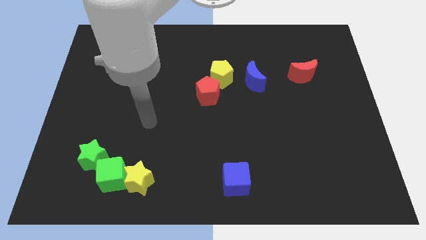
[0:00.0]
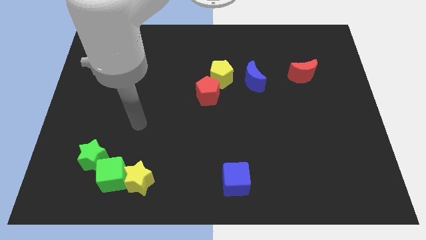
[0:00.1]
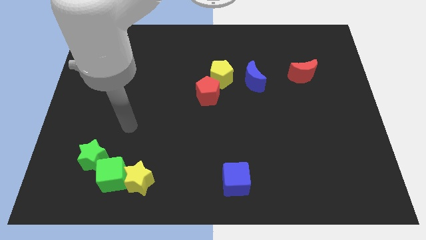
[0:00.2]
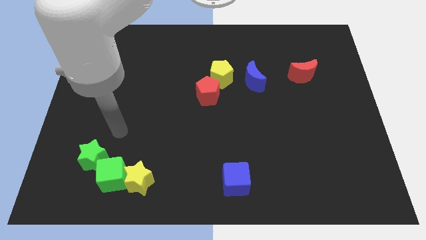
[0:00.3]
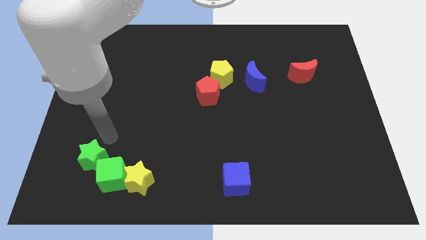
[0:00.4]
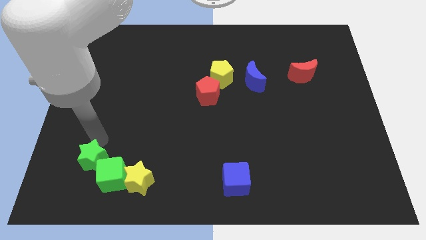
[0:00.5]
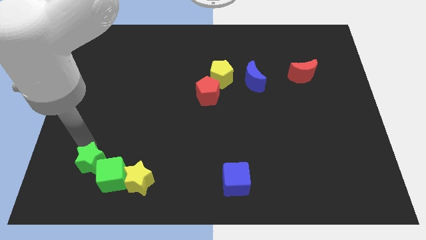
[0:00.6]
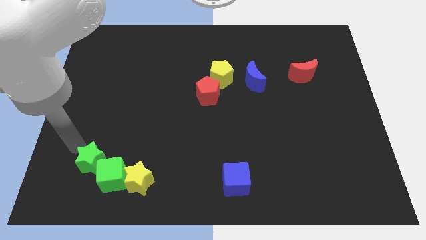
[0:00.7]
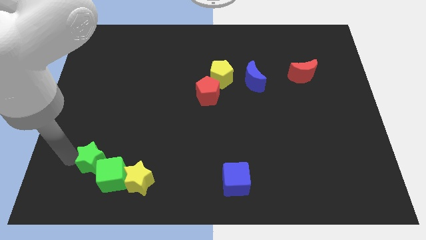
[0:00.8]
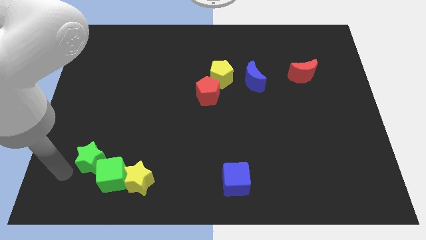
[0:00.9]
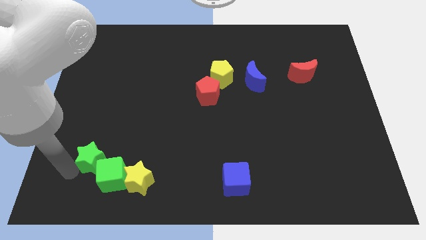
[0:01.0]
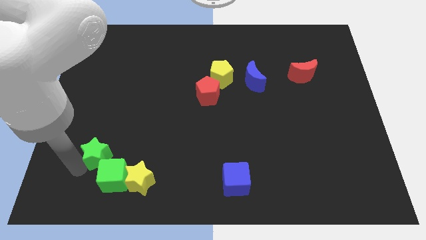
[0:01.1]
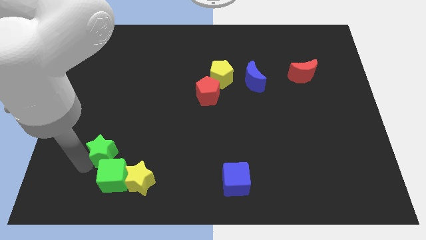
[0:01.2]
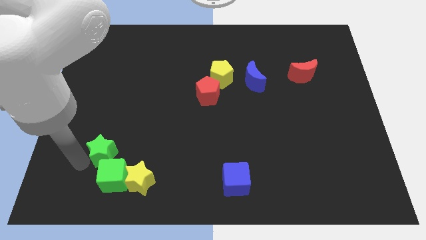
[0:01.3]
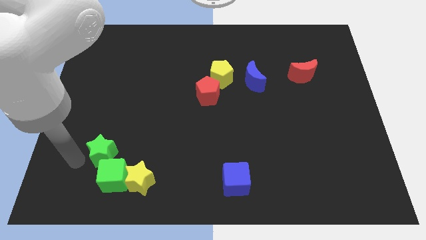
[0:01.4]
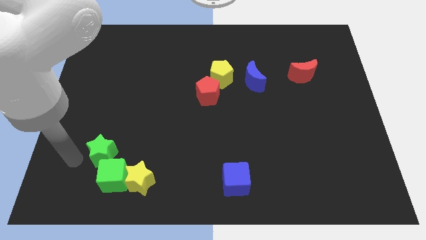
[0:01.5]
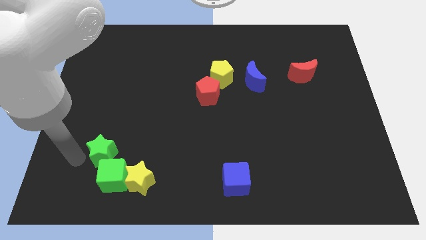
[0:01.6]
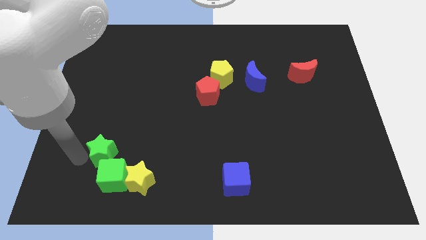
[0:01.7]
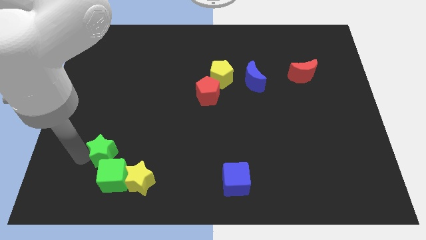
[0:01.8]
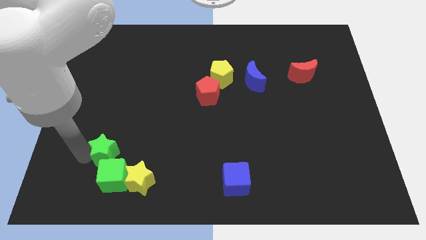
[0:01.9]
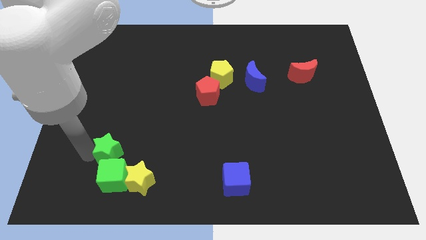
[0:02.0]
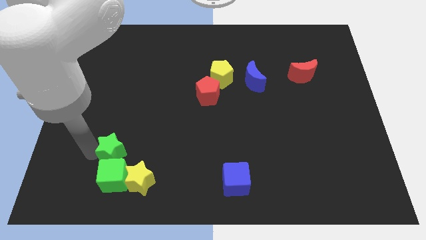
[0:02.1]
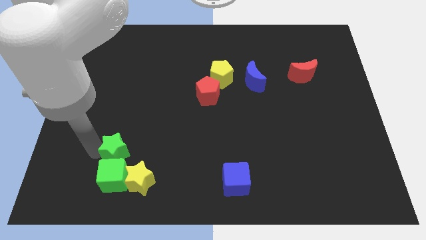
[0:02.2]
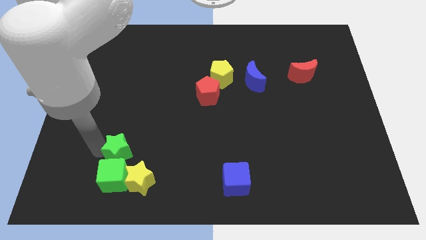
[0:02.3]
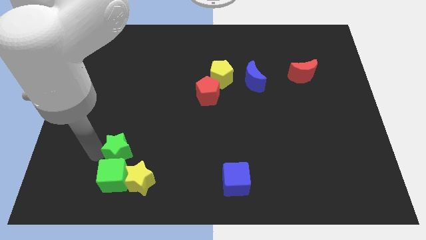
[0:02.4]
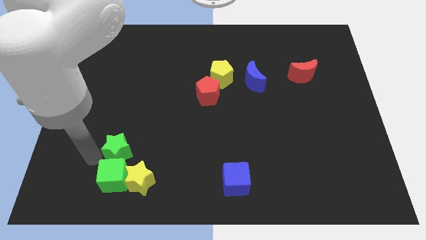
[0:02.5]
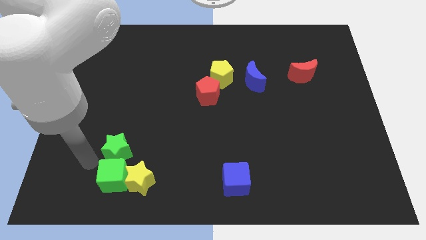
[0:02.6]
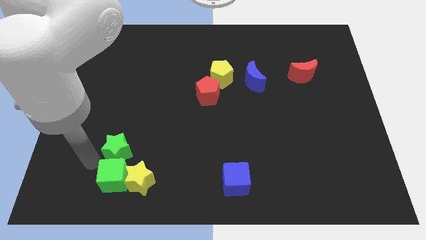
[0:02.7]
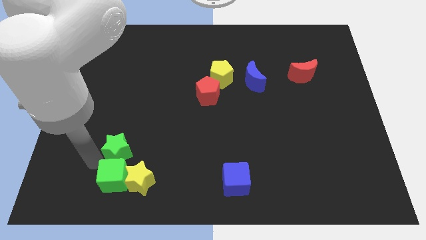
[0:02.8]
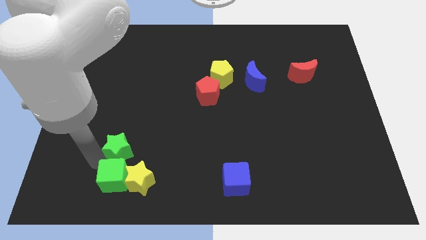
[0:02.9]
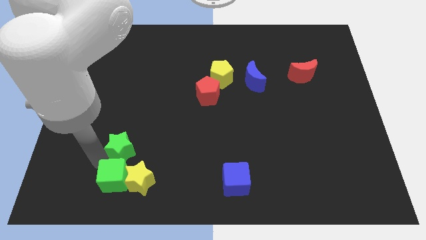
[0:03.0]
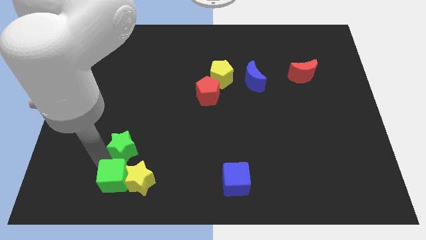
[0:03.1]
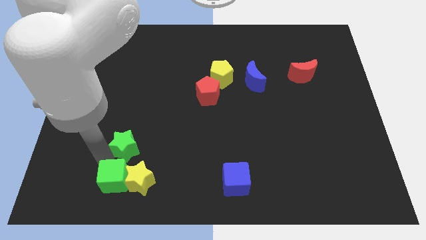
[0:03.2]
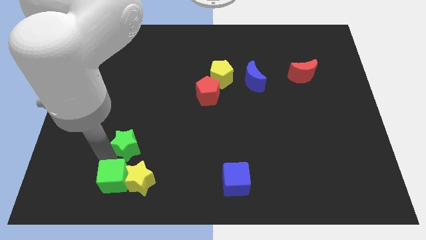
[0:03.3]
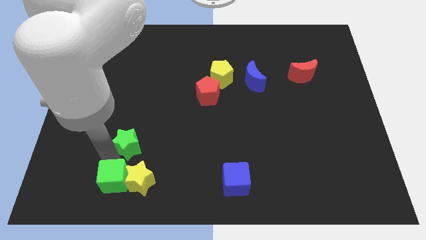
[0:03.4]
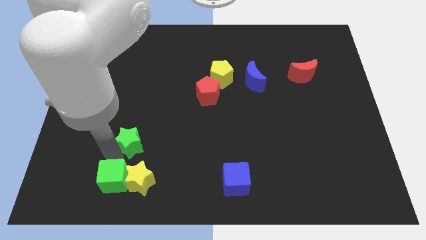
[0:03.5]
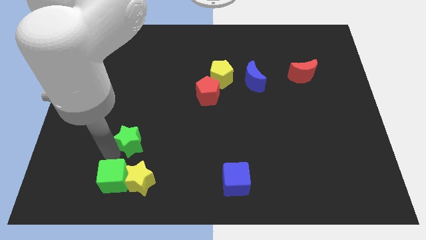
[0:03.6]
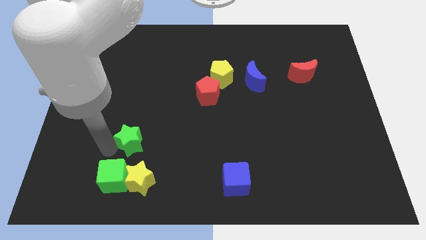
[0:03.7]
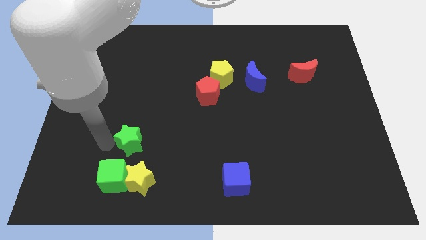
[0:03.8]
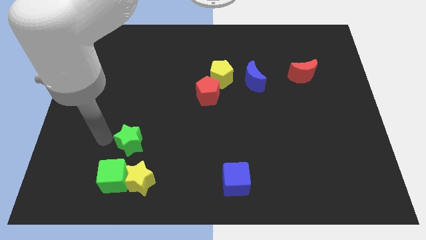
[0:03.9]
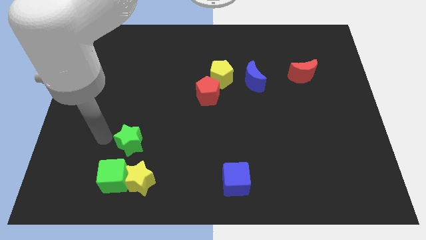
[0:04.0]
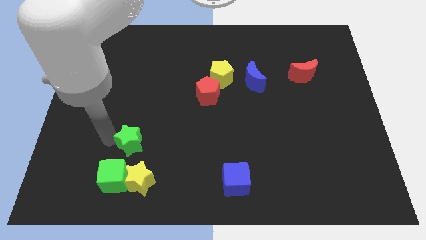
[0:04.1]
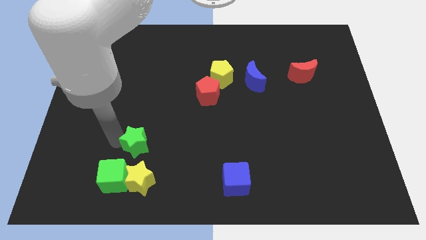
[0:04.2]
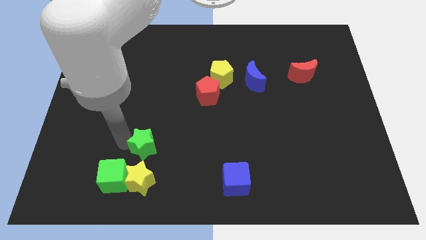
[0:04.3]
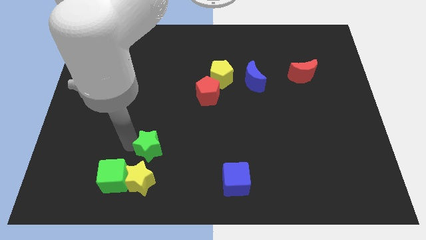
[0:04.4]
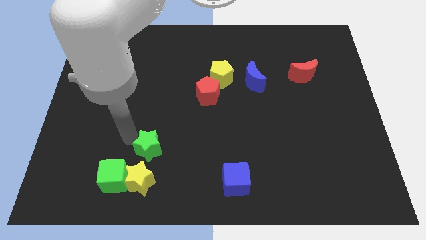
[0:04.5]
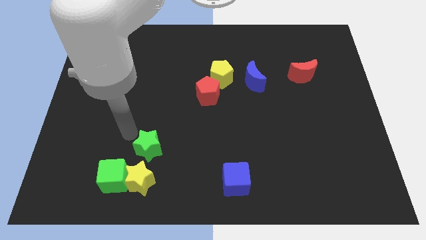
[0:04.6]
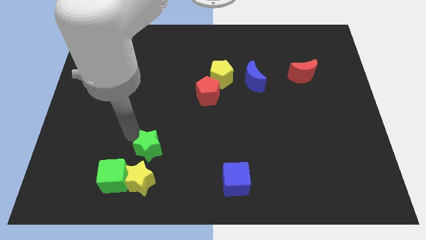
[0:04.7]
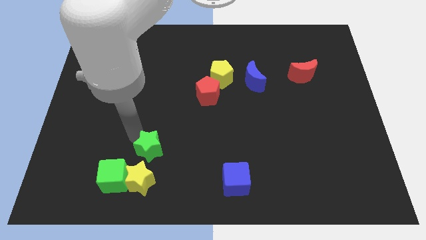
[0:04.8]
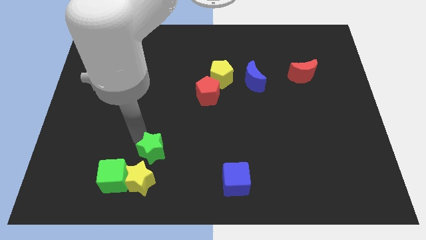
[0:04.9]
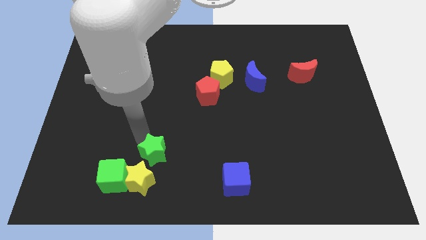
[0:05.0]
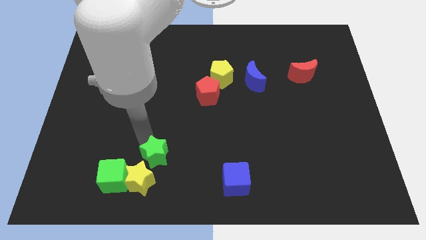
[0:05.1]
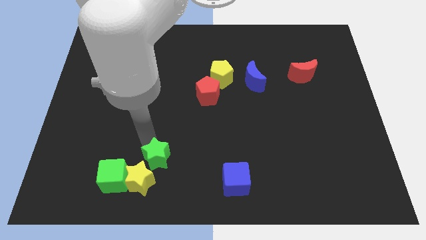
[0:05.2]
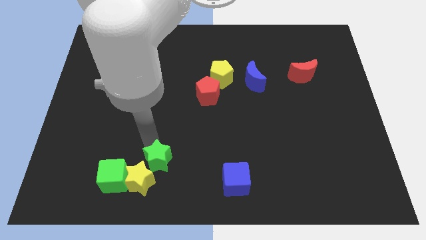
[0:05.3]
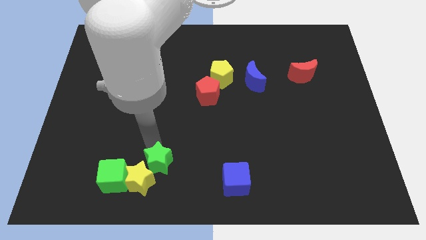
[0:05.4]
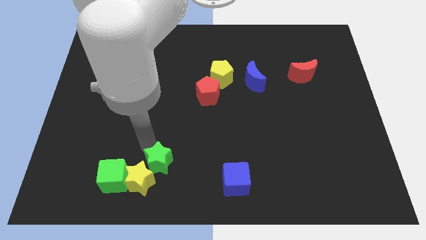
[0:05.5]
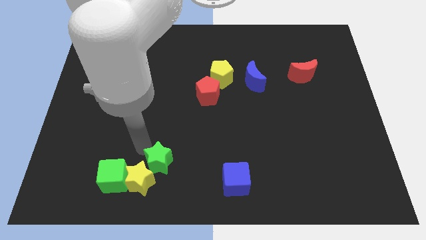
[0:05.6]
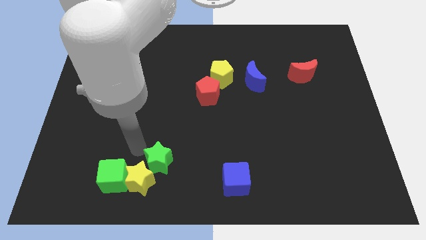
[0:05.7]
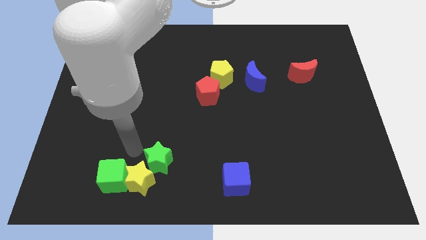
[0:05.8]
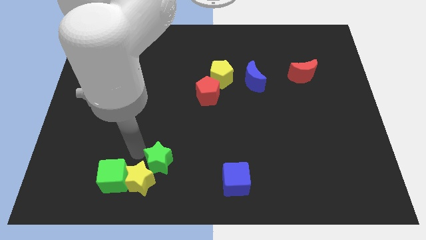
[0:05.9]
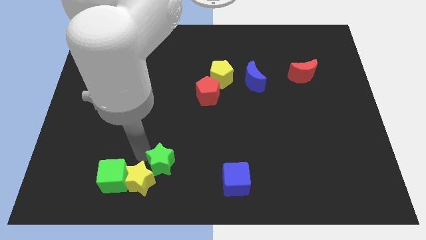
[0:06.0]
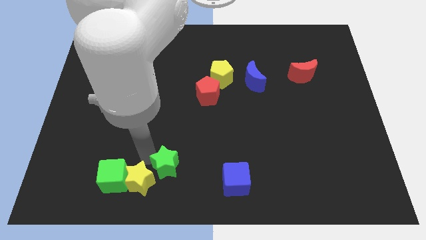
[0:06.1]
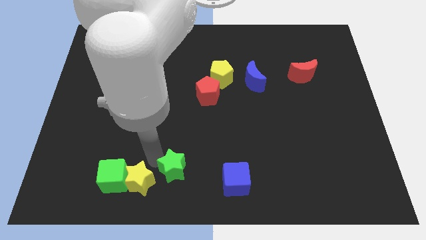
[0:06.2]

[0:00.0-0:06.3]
put the green star to the bottom
